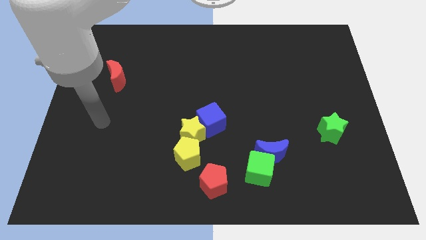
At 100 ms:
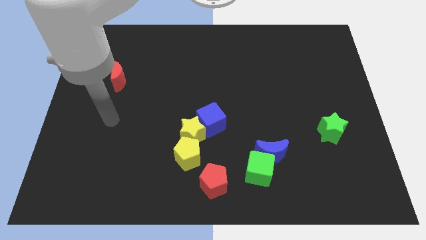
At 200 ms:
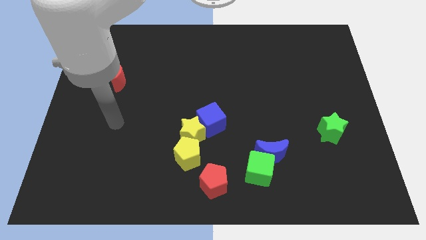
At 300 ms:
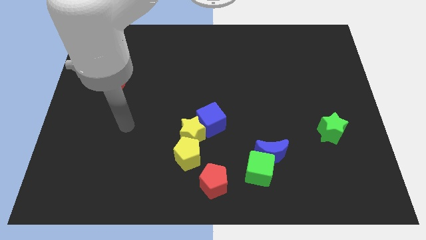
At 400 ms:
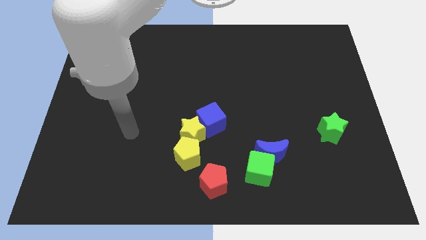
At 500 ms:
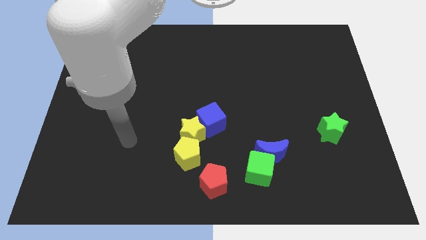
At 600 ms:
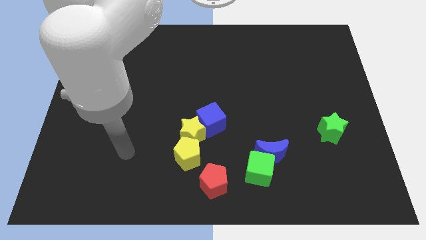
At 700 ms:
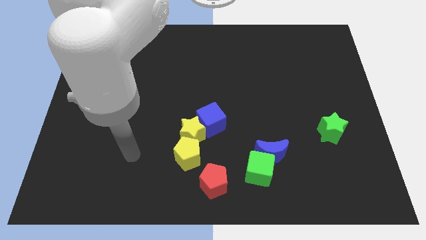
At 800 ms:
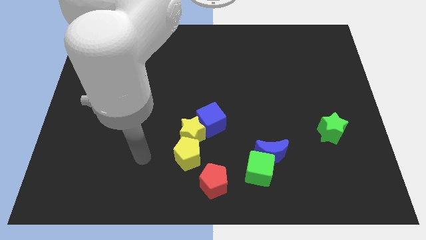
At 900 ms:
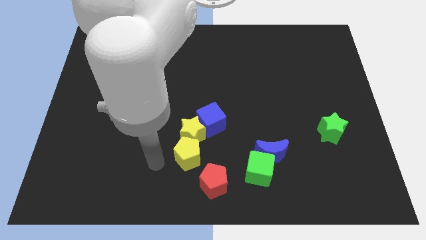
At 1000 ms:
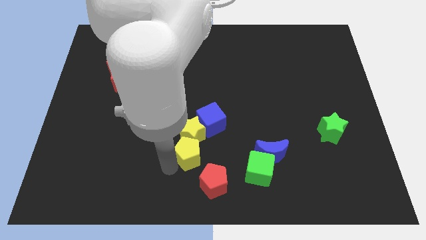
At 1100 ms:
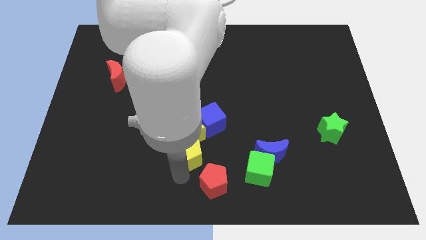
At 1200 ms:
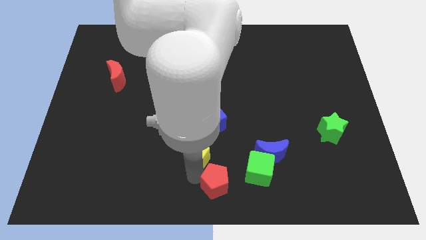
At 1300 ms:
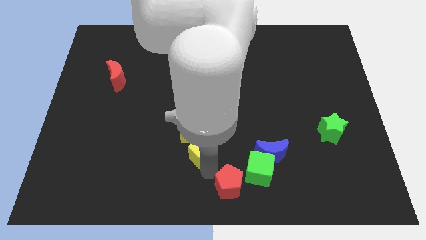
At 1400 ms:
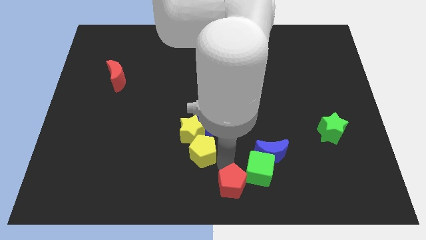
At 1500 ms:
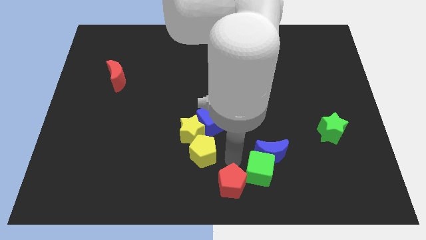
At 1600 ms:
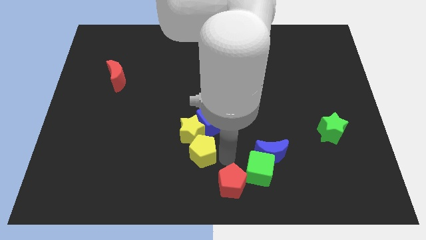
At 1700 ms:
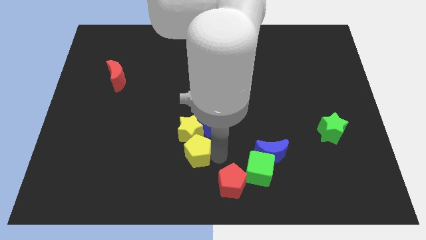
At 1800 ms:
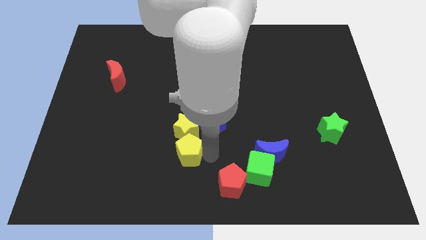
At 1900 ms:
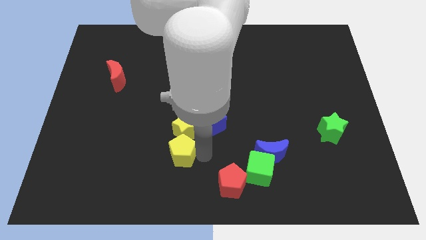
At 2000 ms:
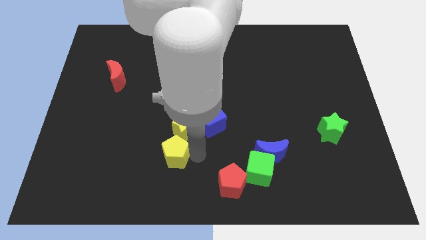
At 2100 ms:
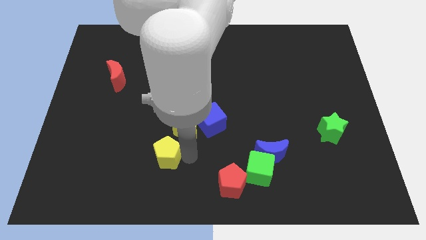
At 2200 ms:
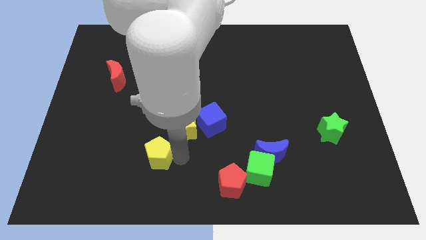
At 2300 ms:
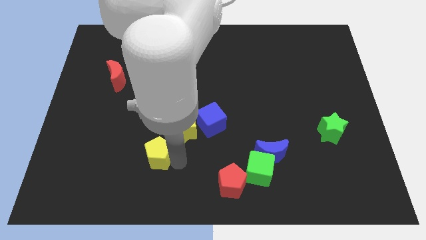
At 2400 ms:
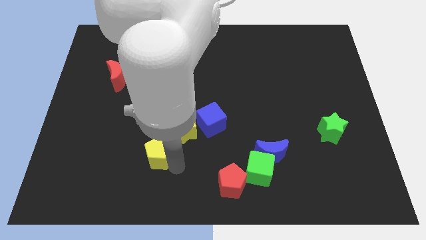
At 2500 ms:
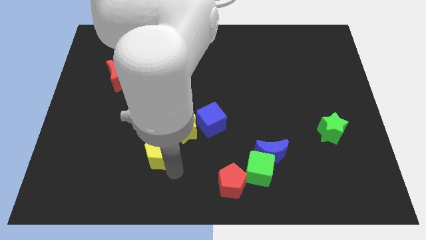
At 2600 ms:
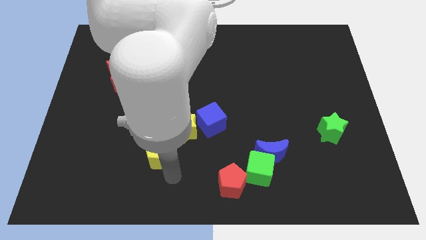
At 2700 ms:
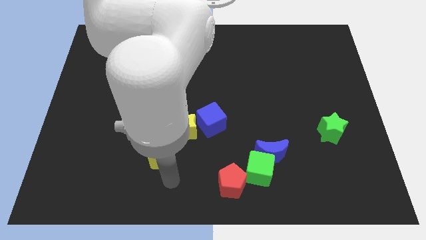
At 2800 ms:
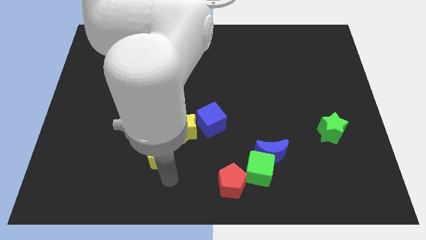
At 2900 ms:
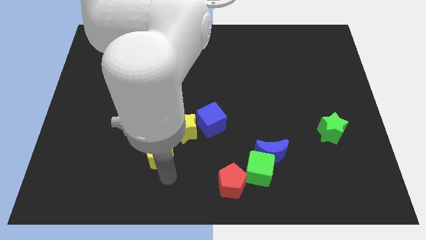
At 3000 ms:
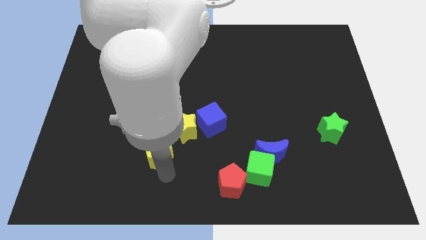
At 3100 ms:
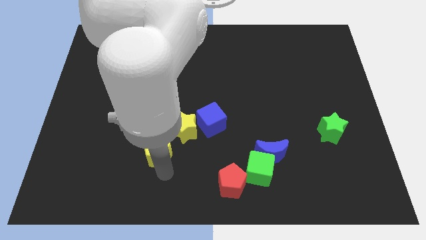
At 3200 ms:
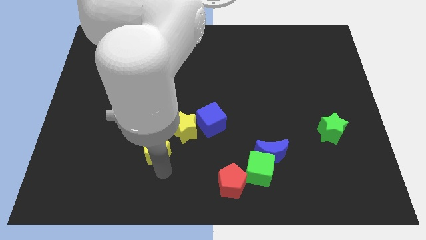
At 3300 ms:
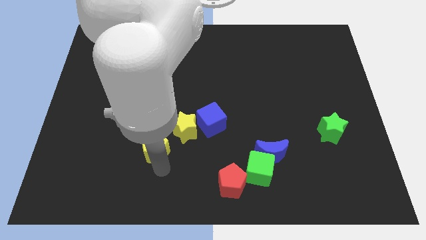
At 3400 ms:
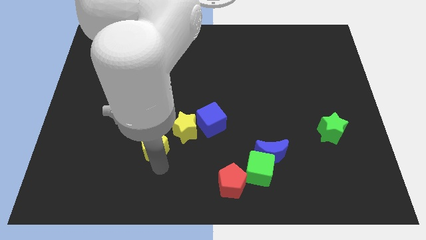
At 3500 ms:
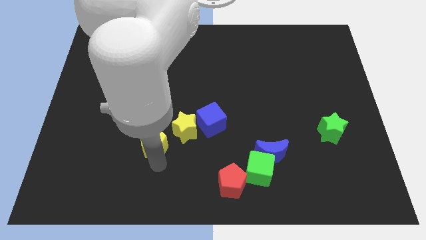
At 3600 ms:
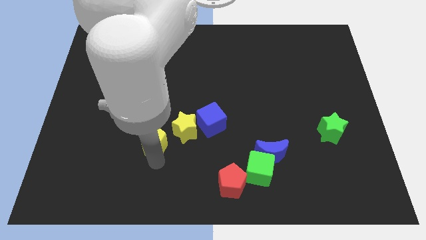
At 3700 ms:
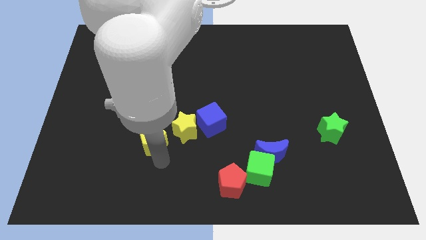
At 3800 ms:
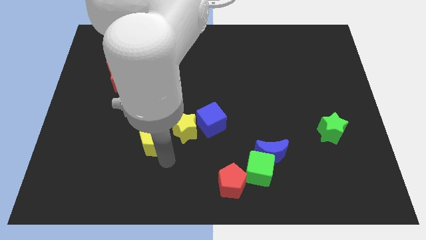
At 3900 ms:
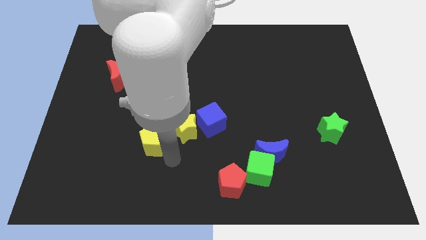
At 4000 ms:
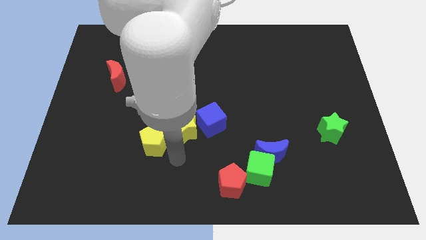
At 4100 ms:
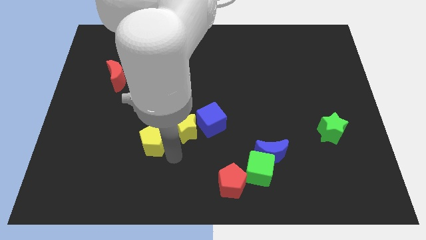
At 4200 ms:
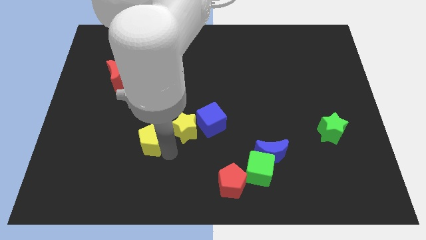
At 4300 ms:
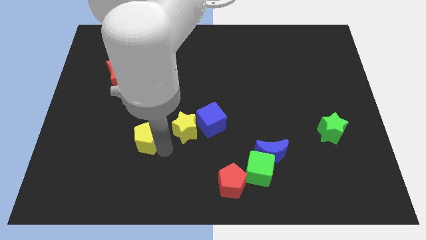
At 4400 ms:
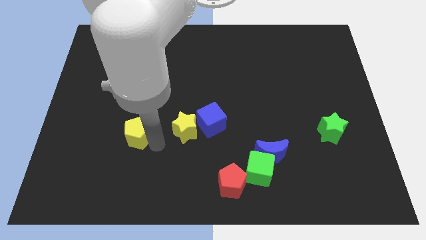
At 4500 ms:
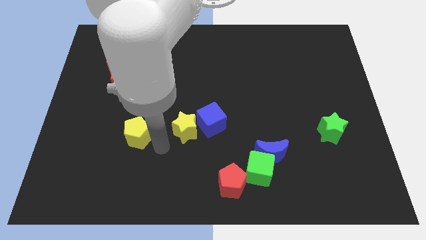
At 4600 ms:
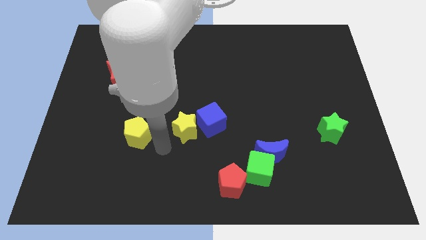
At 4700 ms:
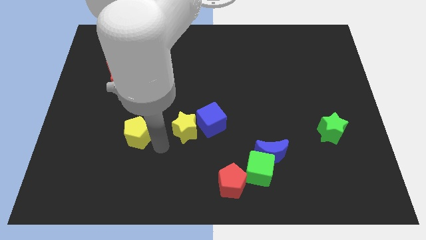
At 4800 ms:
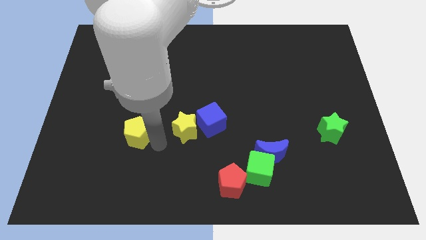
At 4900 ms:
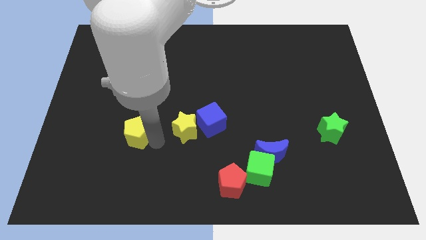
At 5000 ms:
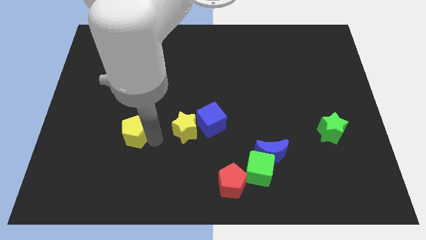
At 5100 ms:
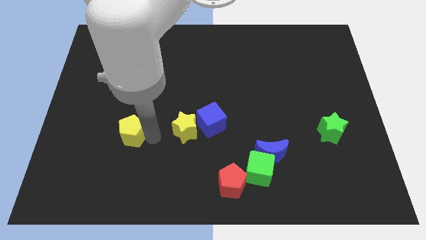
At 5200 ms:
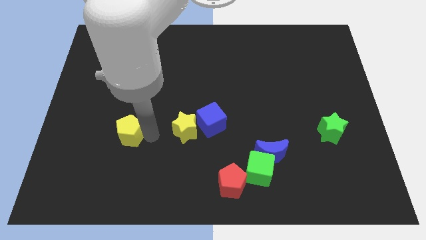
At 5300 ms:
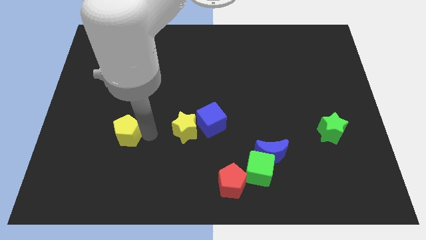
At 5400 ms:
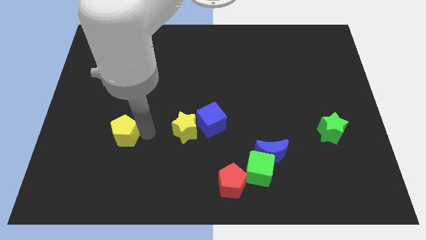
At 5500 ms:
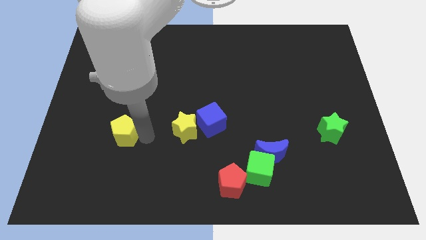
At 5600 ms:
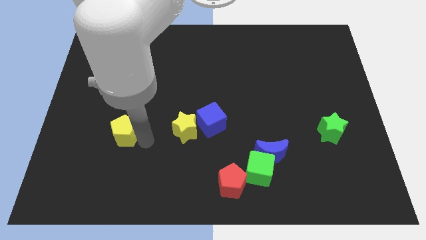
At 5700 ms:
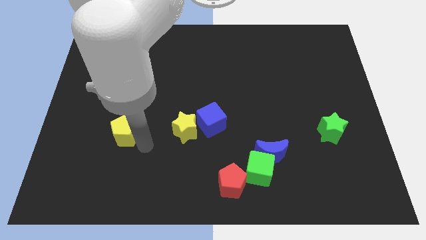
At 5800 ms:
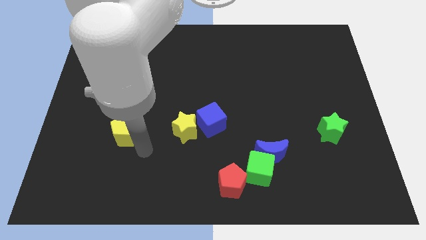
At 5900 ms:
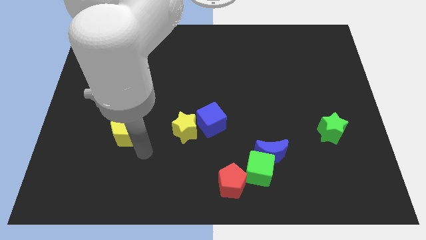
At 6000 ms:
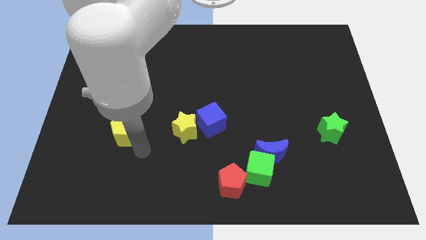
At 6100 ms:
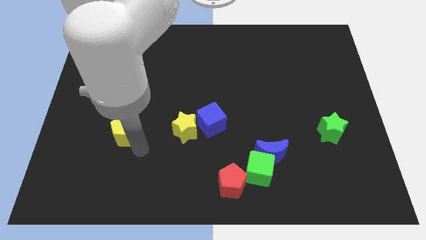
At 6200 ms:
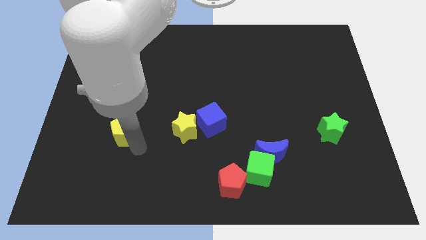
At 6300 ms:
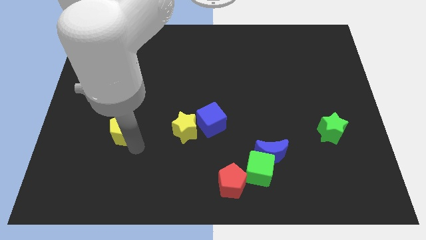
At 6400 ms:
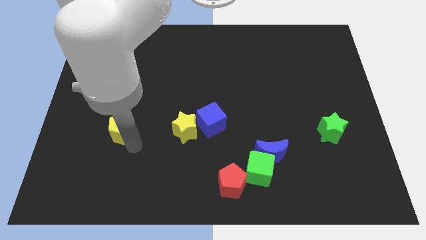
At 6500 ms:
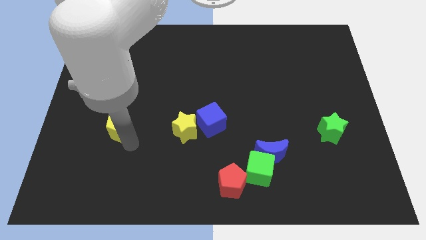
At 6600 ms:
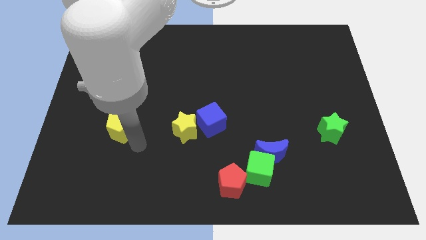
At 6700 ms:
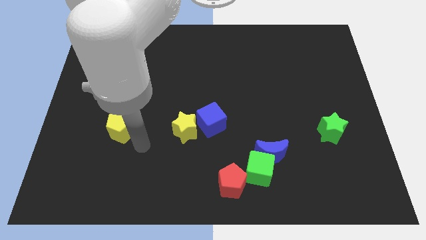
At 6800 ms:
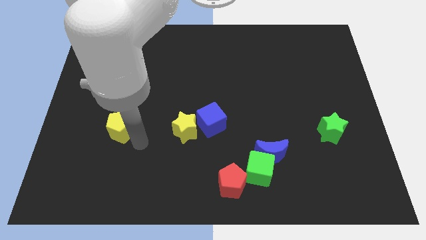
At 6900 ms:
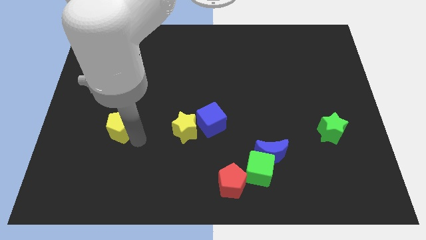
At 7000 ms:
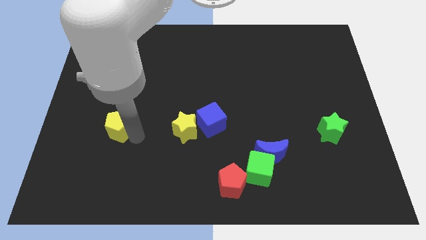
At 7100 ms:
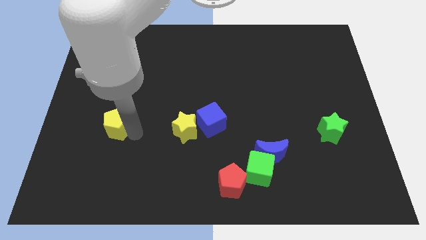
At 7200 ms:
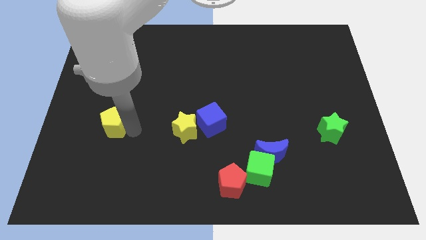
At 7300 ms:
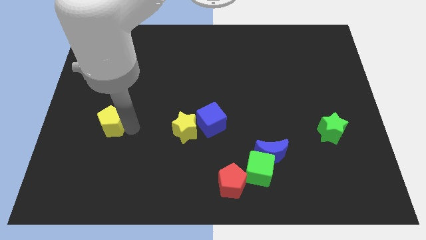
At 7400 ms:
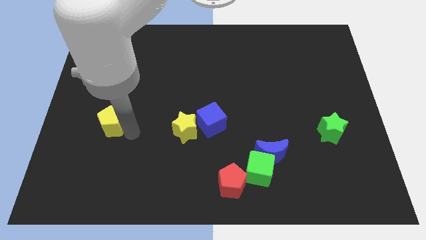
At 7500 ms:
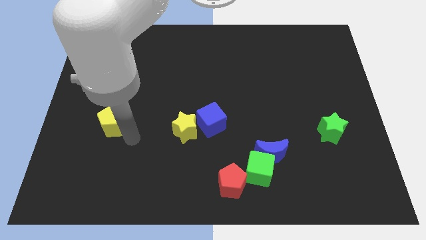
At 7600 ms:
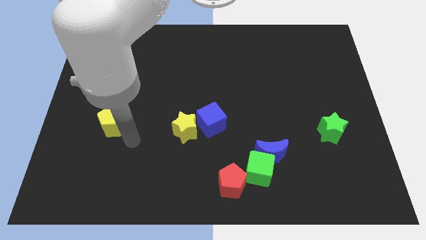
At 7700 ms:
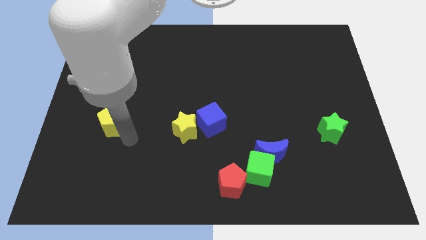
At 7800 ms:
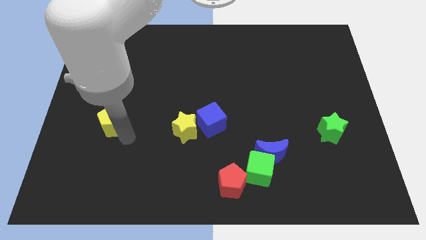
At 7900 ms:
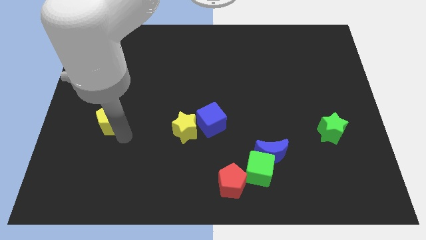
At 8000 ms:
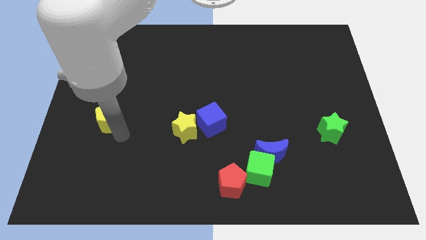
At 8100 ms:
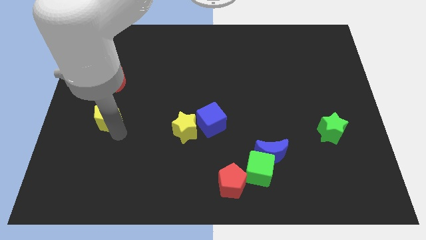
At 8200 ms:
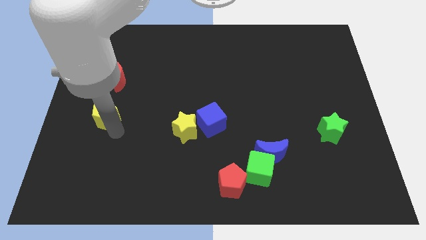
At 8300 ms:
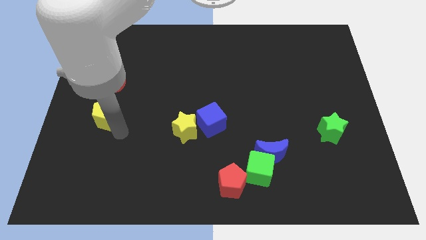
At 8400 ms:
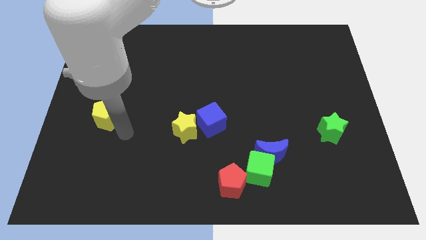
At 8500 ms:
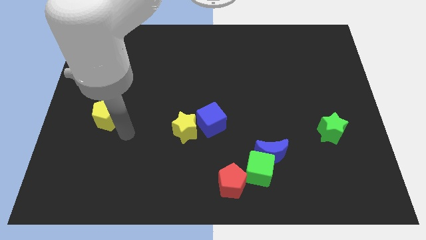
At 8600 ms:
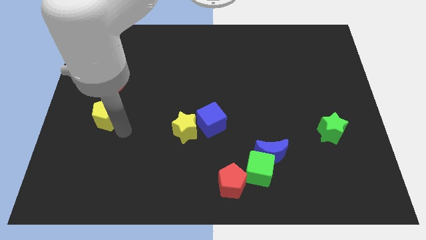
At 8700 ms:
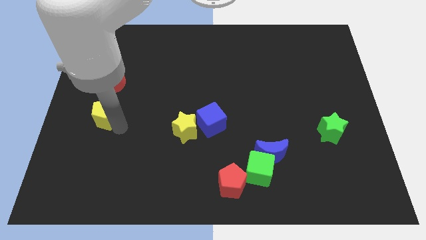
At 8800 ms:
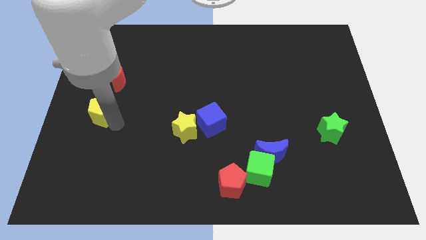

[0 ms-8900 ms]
push the yellow pentagon to the left side
